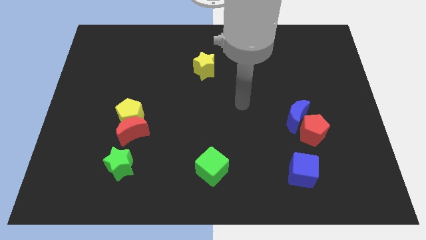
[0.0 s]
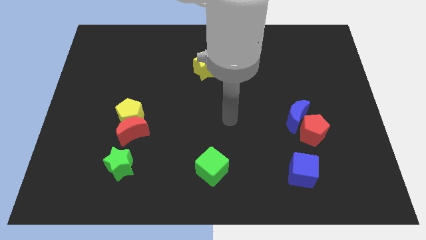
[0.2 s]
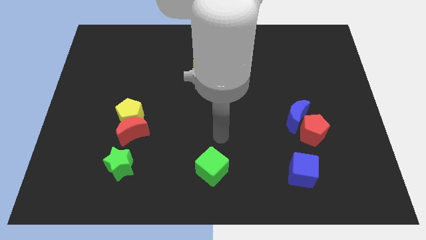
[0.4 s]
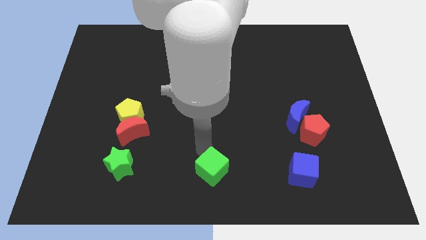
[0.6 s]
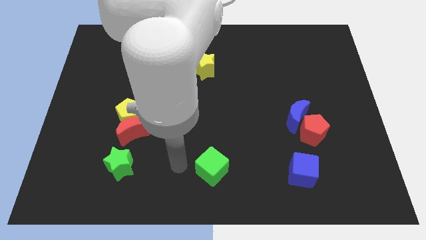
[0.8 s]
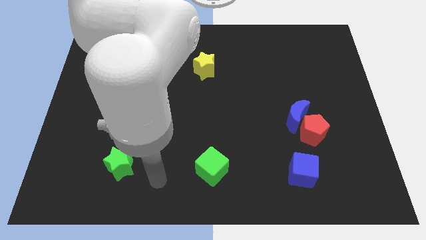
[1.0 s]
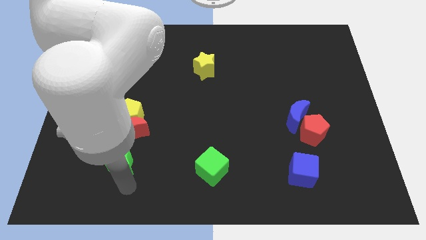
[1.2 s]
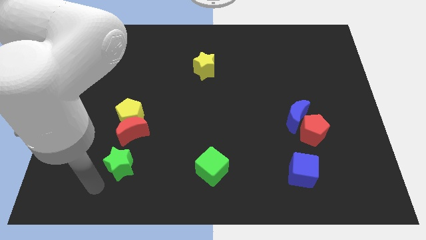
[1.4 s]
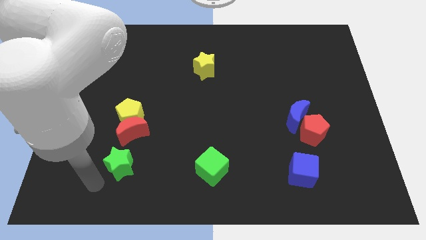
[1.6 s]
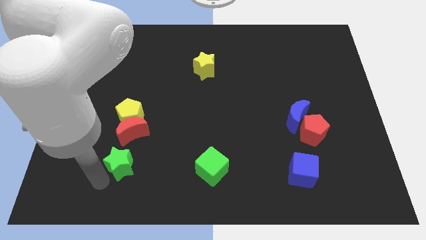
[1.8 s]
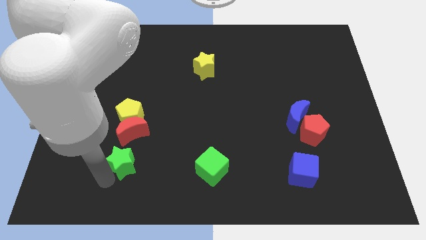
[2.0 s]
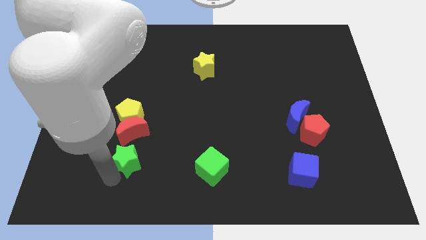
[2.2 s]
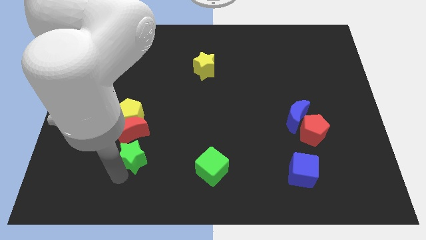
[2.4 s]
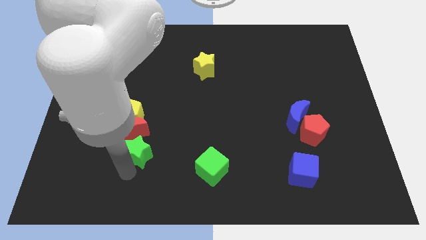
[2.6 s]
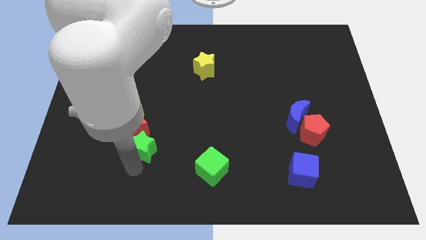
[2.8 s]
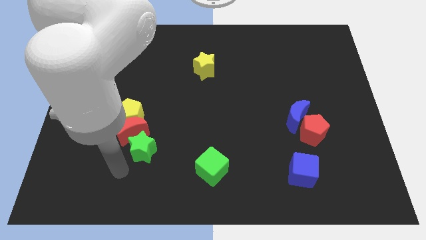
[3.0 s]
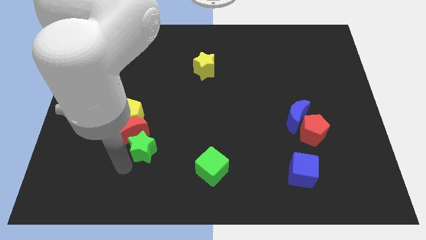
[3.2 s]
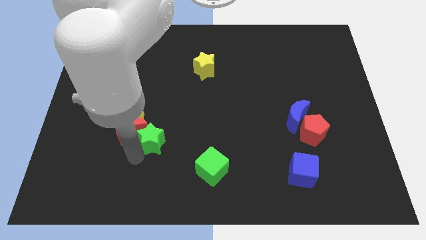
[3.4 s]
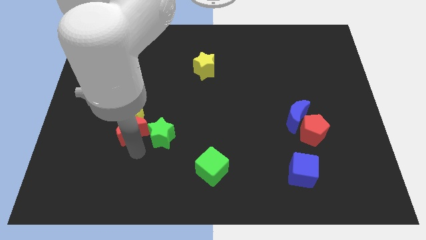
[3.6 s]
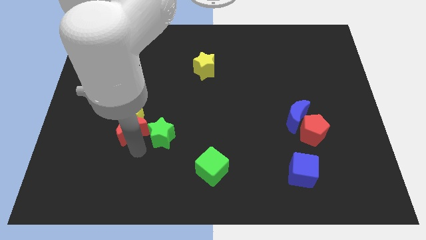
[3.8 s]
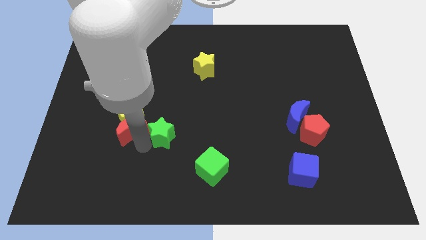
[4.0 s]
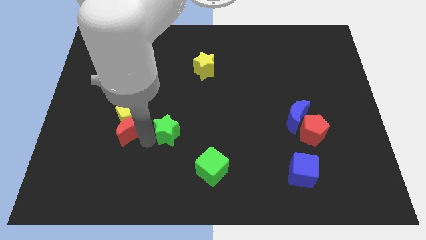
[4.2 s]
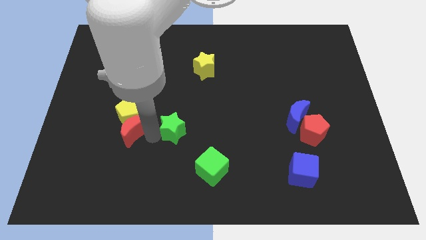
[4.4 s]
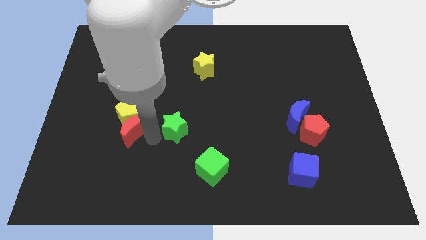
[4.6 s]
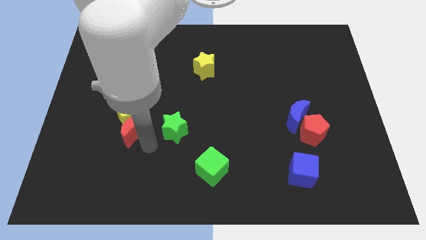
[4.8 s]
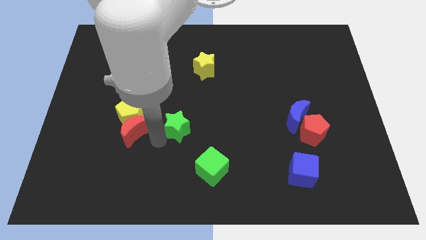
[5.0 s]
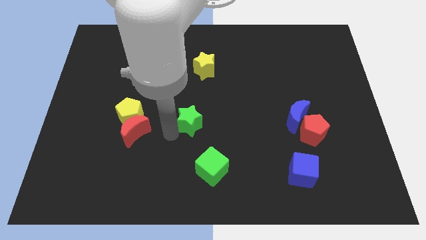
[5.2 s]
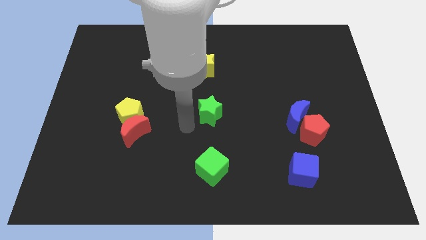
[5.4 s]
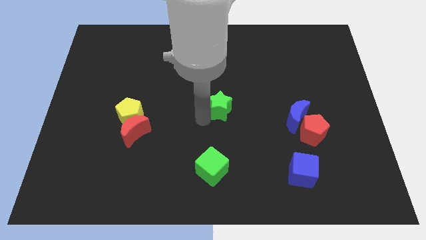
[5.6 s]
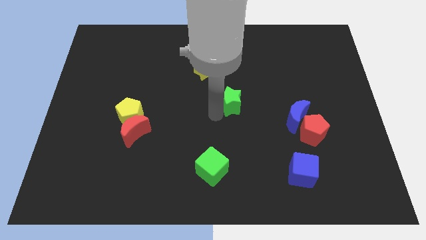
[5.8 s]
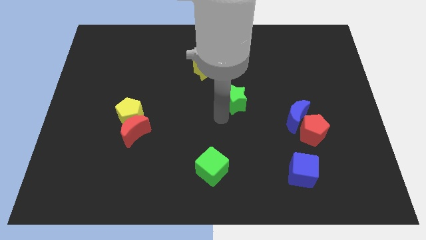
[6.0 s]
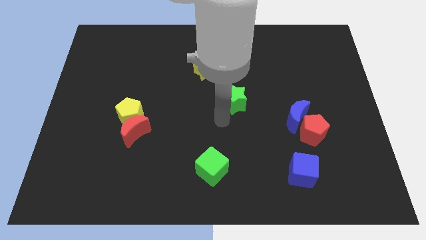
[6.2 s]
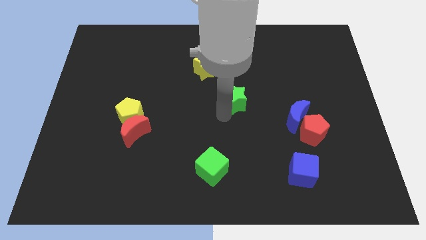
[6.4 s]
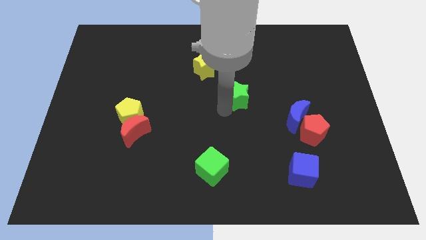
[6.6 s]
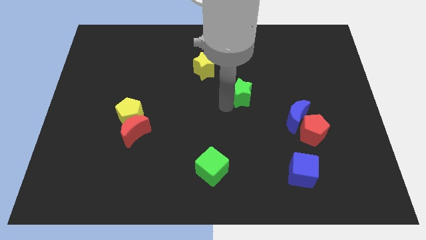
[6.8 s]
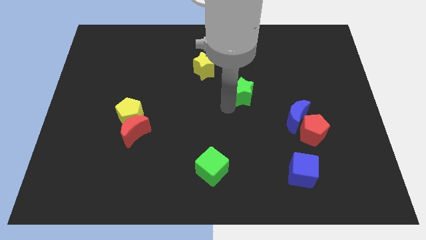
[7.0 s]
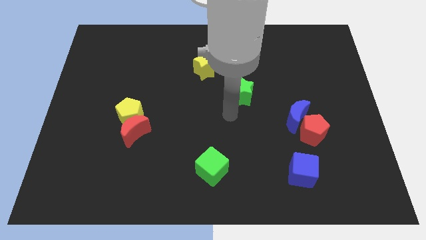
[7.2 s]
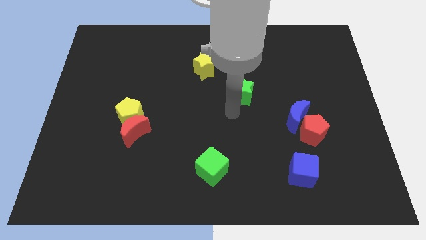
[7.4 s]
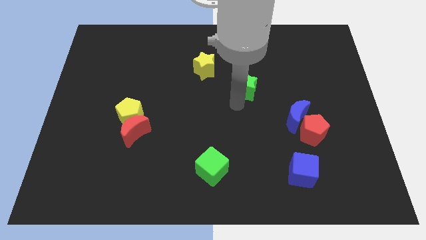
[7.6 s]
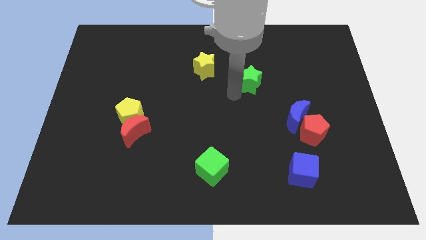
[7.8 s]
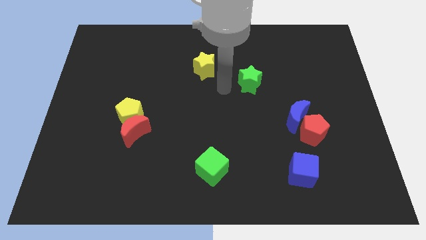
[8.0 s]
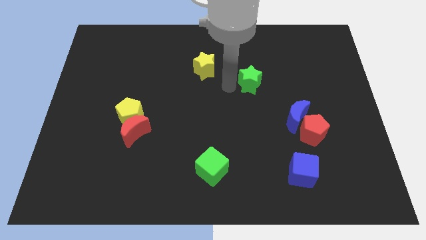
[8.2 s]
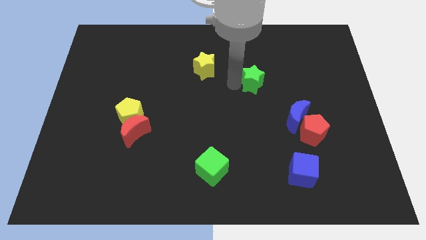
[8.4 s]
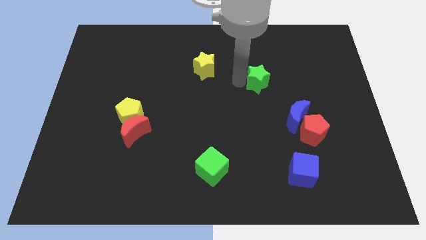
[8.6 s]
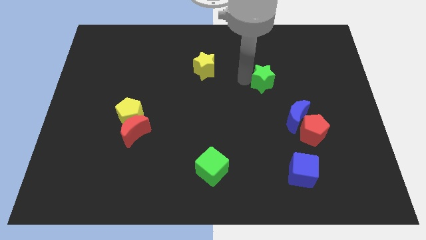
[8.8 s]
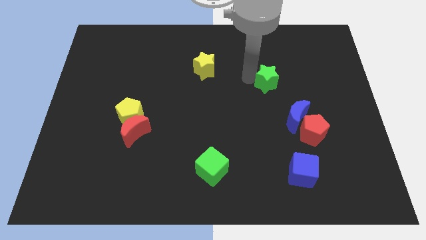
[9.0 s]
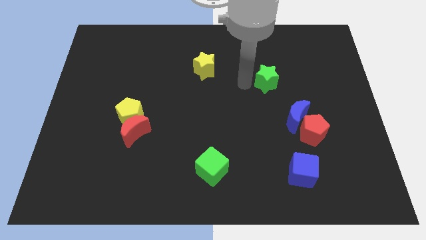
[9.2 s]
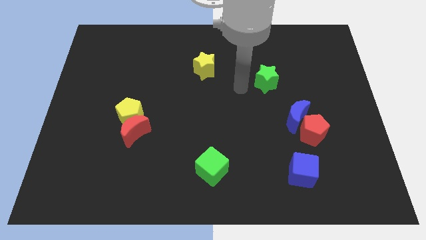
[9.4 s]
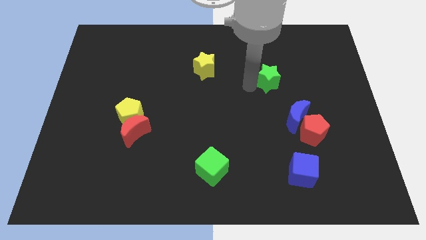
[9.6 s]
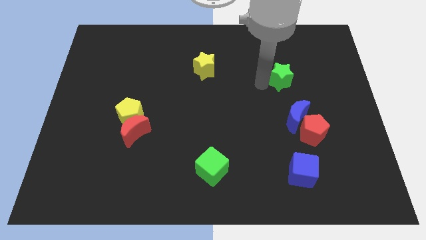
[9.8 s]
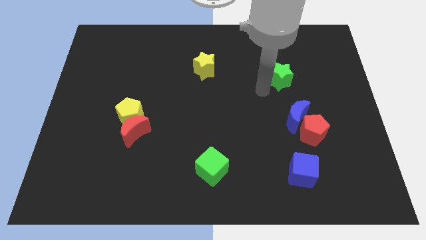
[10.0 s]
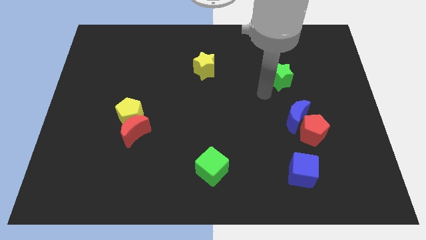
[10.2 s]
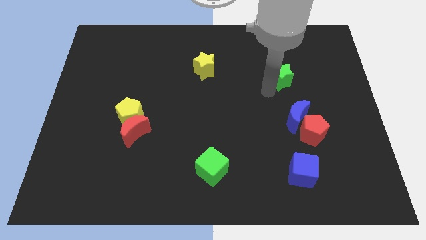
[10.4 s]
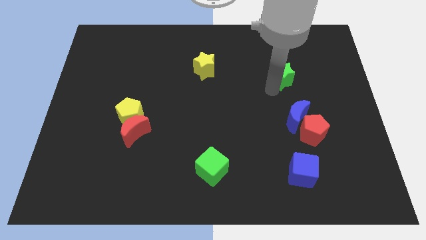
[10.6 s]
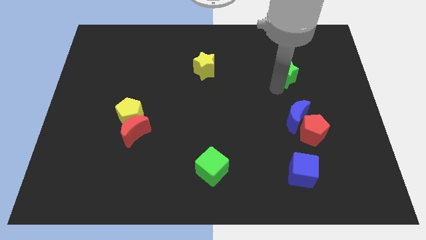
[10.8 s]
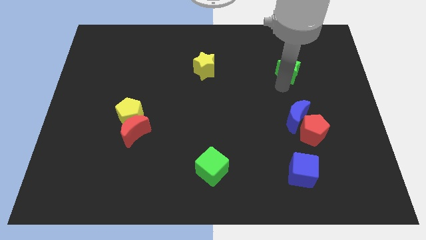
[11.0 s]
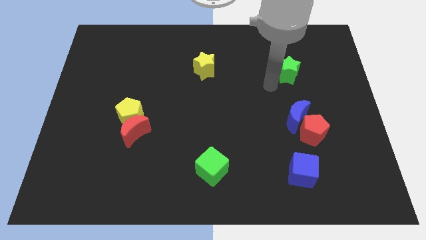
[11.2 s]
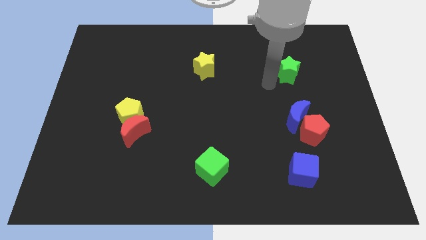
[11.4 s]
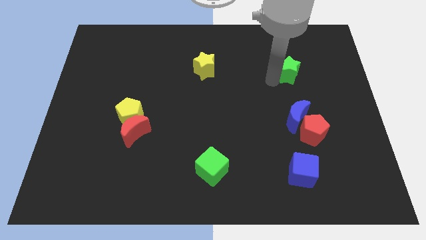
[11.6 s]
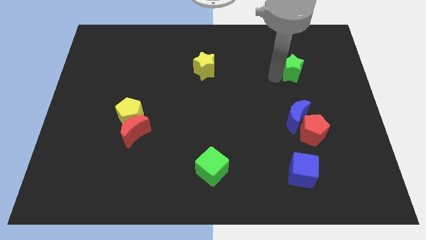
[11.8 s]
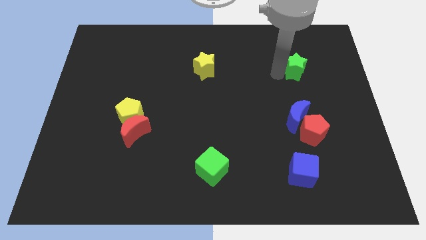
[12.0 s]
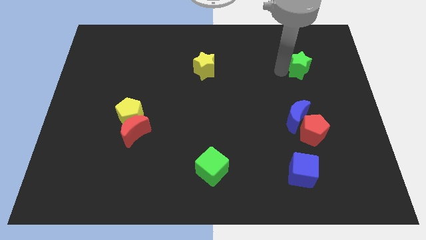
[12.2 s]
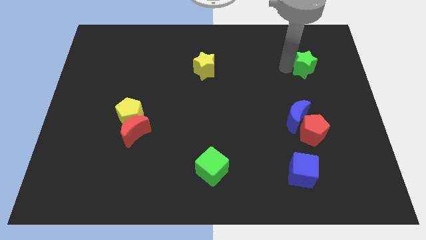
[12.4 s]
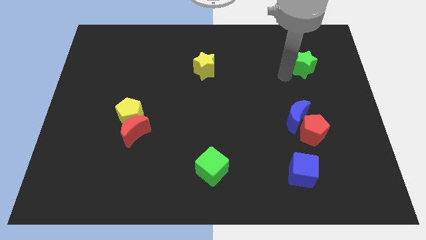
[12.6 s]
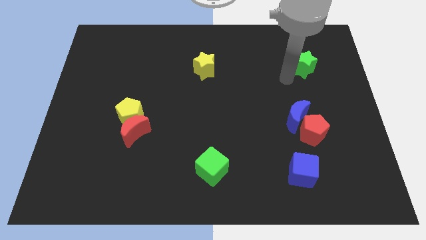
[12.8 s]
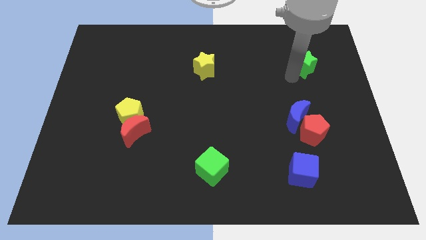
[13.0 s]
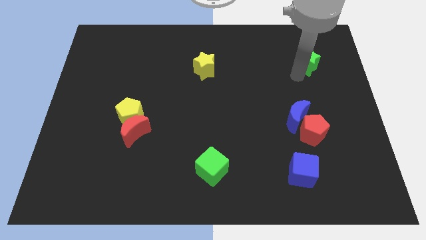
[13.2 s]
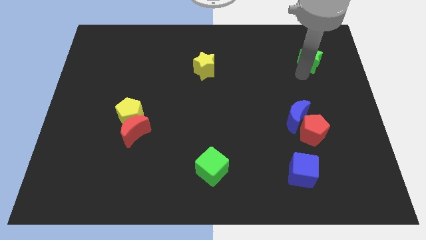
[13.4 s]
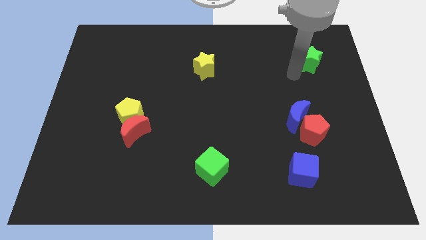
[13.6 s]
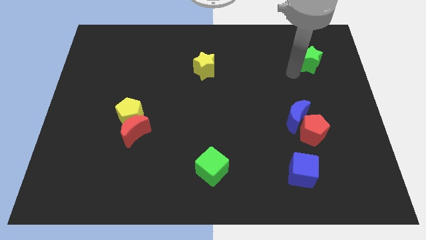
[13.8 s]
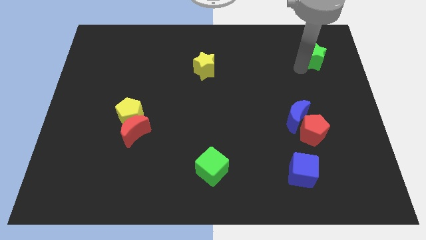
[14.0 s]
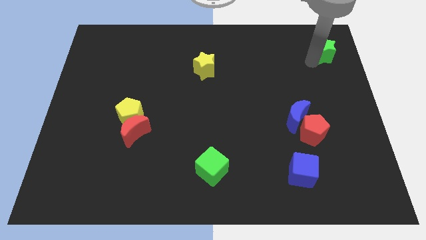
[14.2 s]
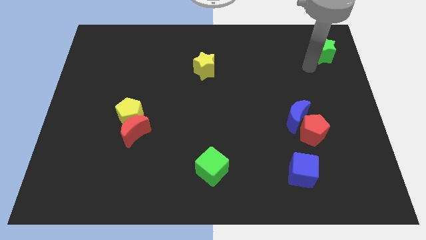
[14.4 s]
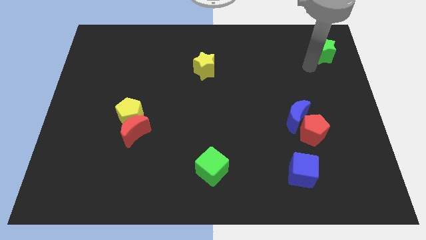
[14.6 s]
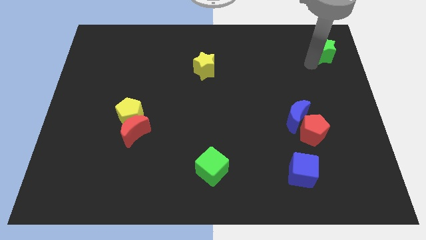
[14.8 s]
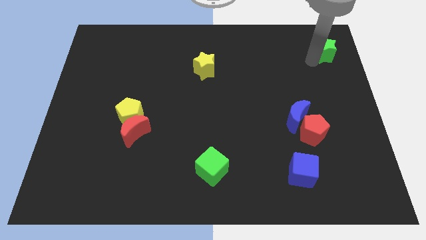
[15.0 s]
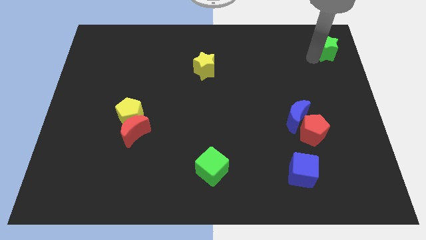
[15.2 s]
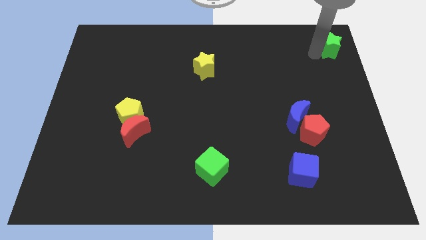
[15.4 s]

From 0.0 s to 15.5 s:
move the green star to the top right corner
